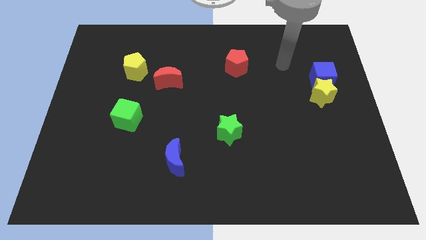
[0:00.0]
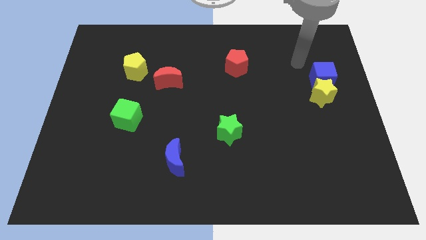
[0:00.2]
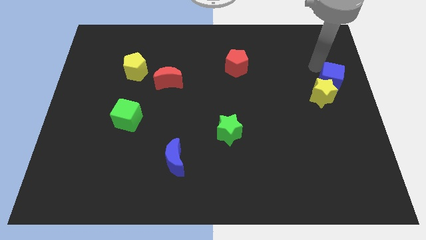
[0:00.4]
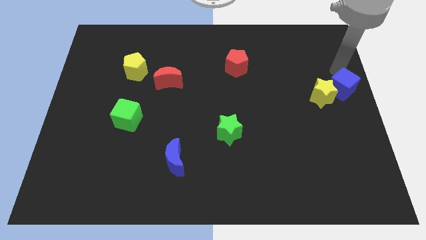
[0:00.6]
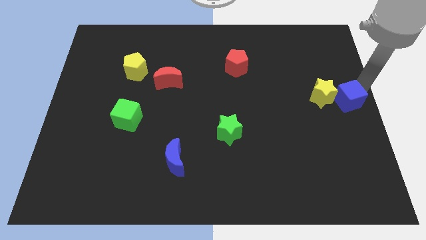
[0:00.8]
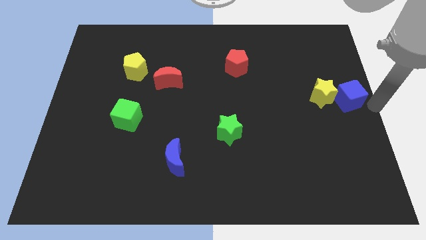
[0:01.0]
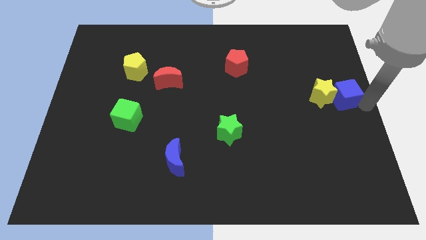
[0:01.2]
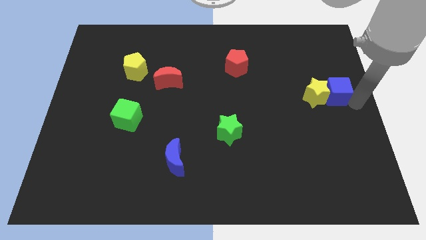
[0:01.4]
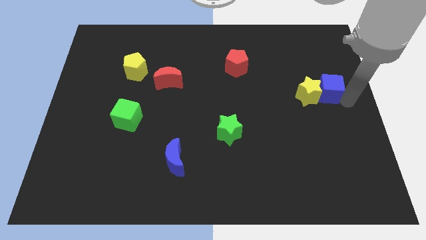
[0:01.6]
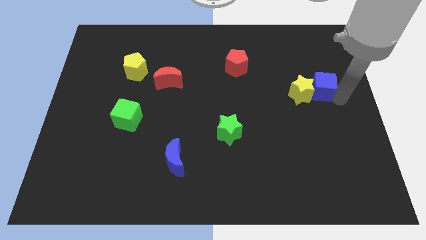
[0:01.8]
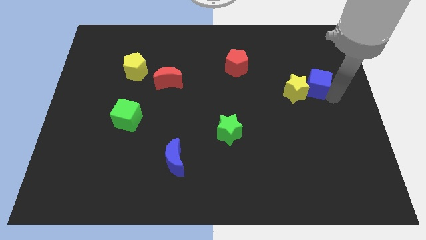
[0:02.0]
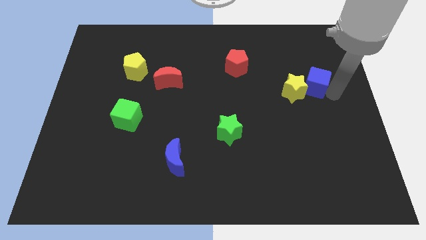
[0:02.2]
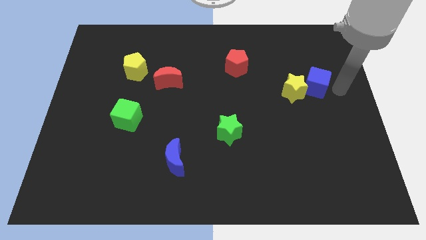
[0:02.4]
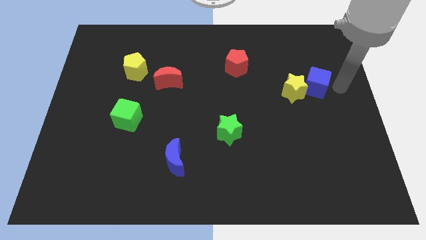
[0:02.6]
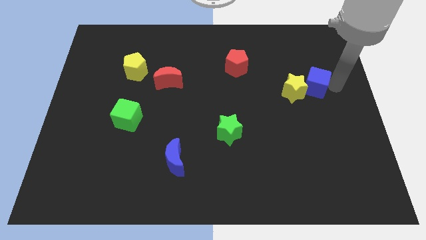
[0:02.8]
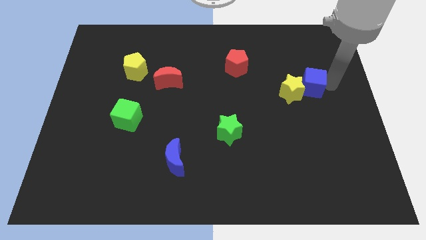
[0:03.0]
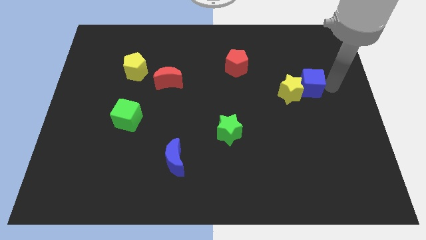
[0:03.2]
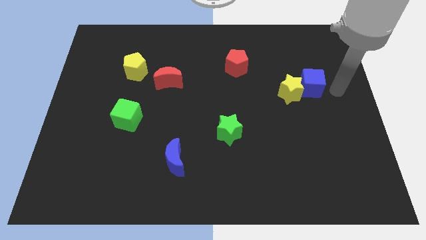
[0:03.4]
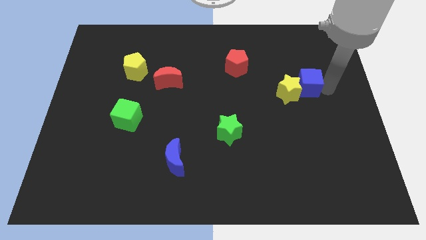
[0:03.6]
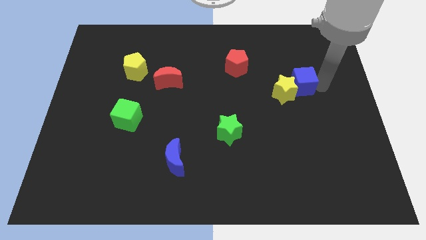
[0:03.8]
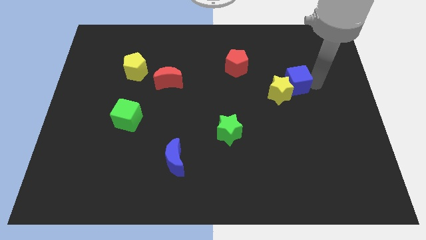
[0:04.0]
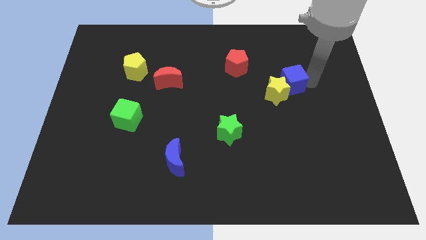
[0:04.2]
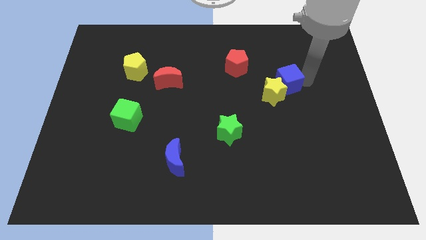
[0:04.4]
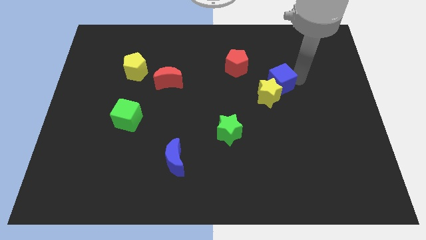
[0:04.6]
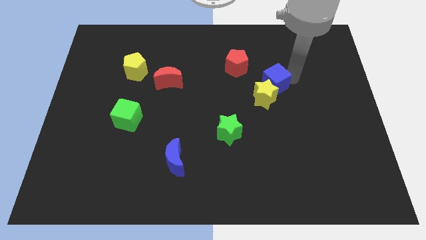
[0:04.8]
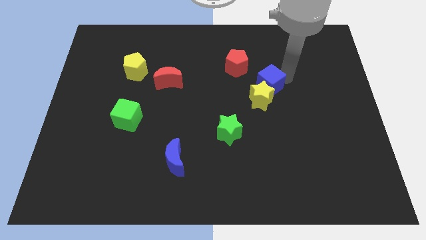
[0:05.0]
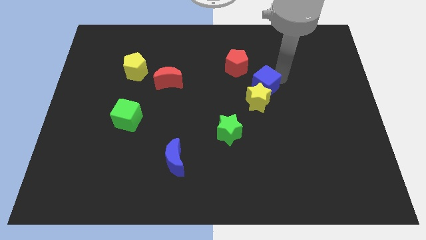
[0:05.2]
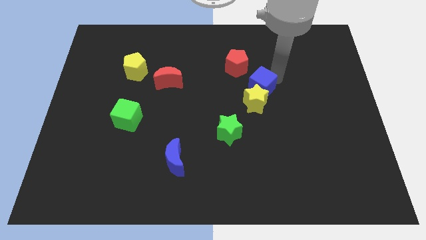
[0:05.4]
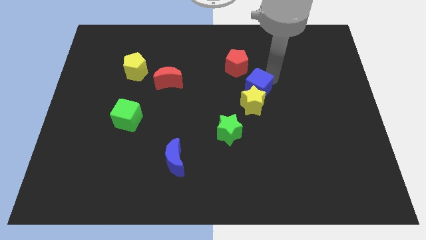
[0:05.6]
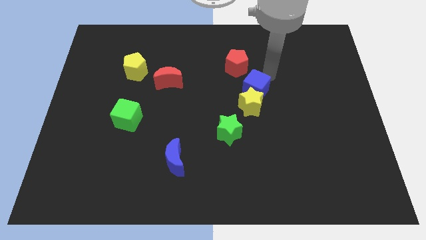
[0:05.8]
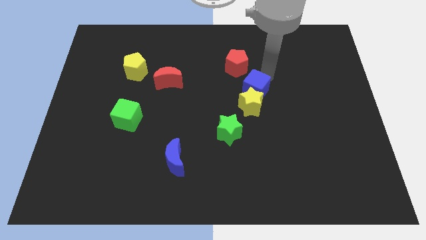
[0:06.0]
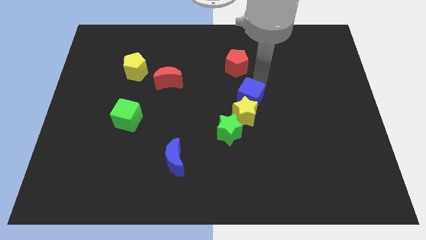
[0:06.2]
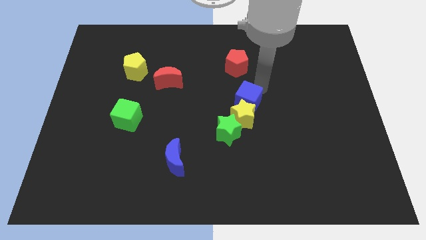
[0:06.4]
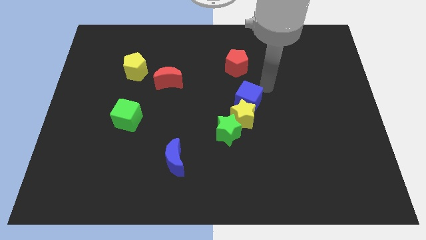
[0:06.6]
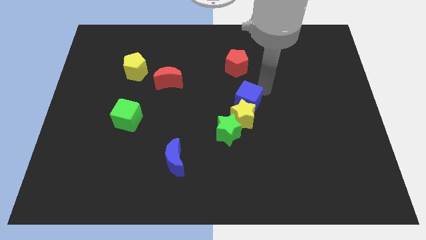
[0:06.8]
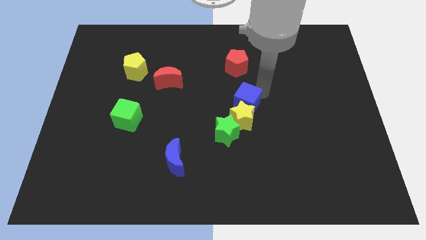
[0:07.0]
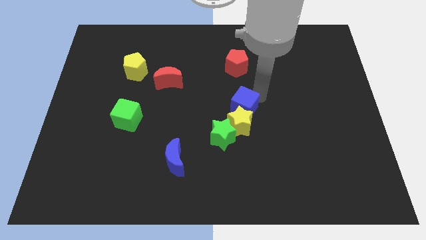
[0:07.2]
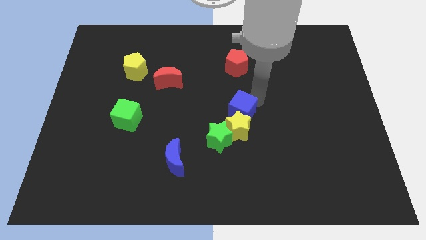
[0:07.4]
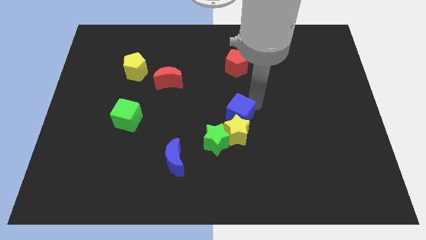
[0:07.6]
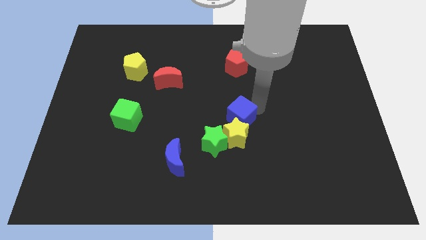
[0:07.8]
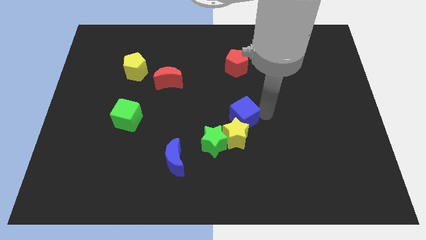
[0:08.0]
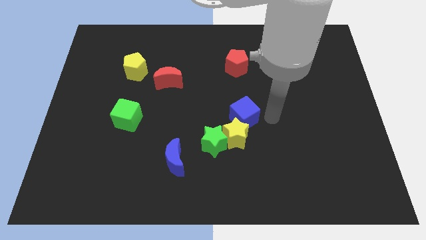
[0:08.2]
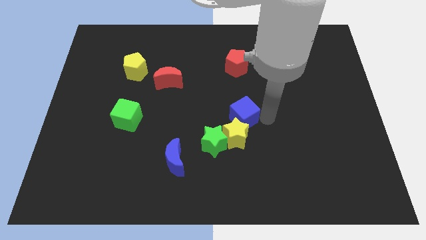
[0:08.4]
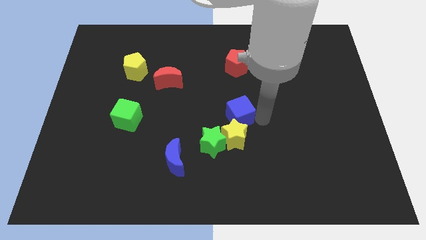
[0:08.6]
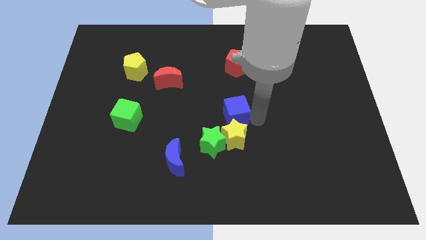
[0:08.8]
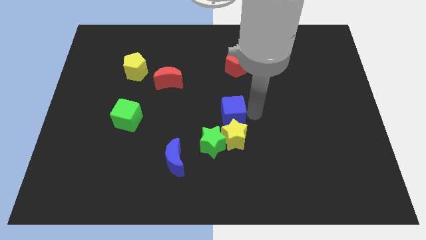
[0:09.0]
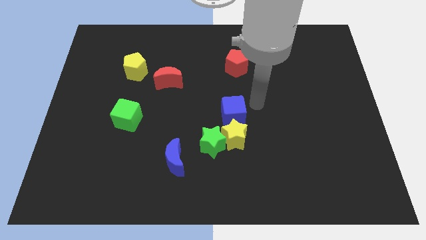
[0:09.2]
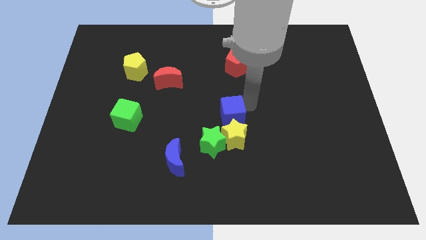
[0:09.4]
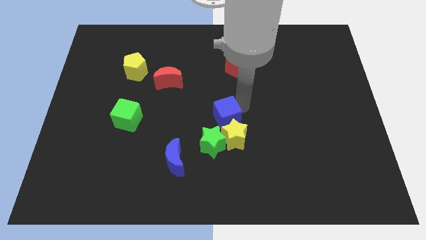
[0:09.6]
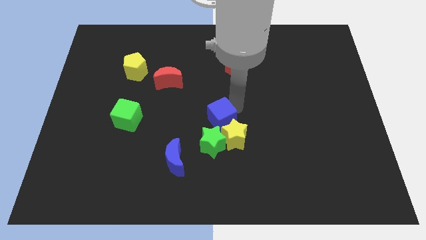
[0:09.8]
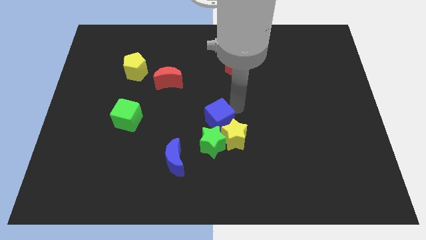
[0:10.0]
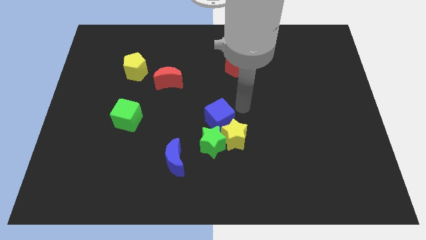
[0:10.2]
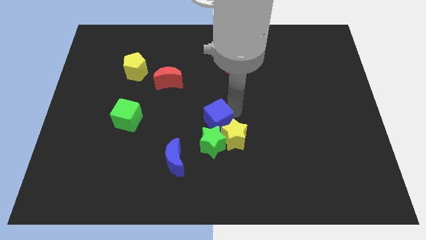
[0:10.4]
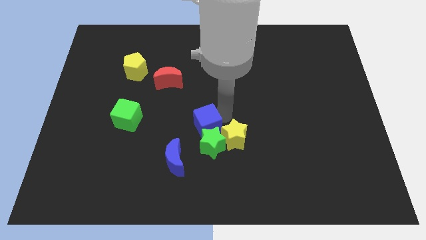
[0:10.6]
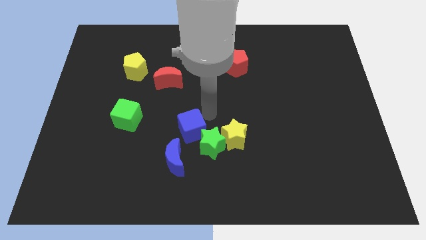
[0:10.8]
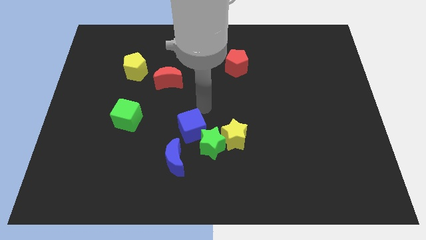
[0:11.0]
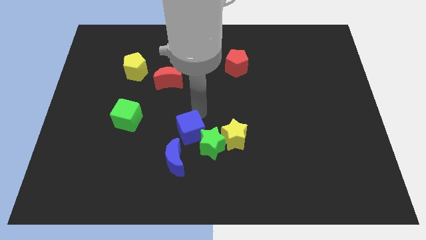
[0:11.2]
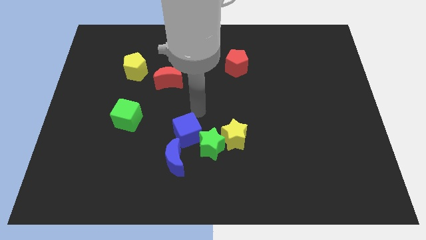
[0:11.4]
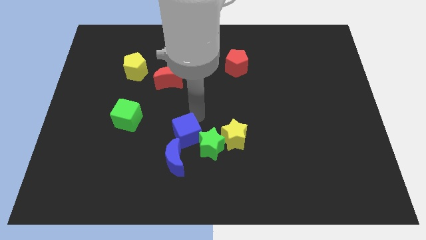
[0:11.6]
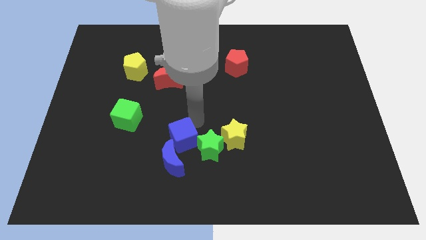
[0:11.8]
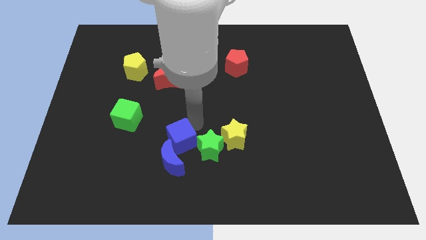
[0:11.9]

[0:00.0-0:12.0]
slide the blue cube to the blue moon

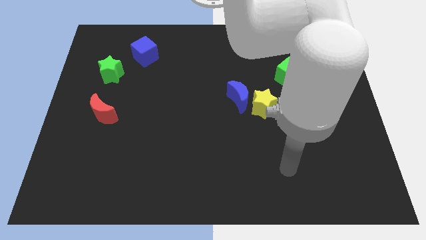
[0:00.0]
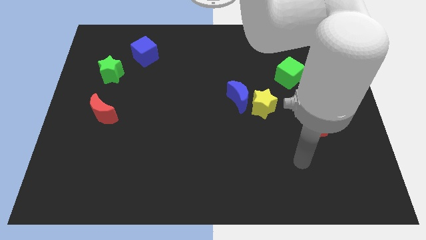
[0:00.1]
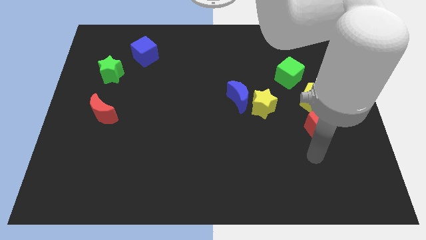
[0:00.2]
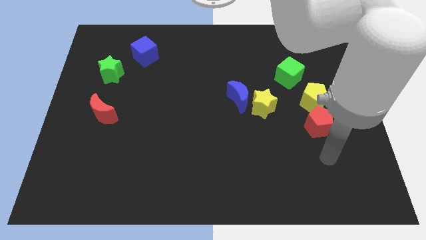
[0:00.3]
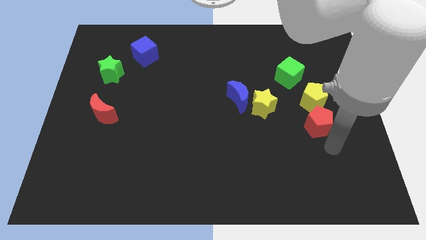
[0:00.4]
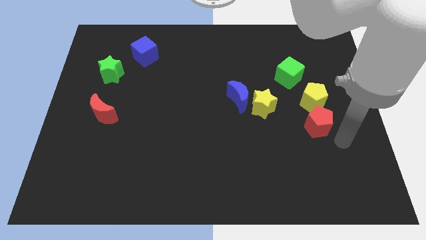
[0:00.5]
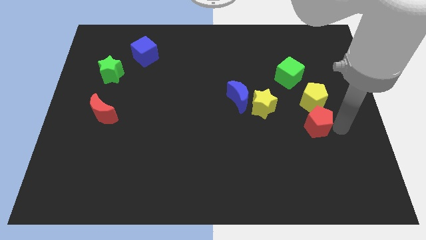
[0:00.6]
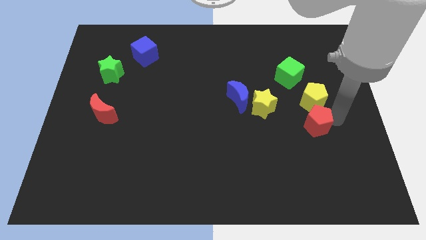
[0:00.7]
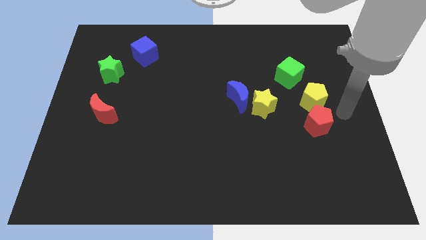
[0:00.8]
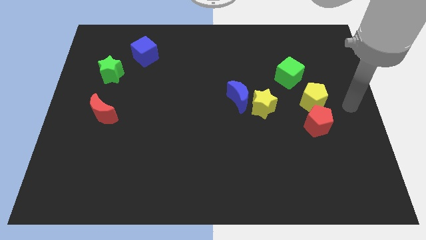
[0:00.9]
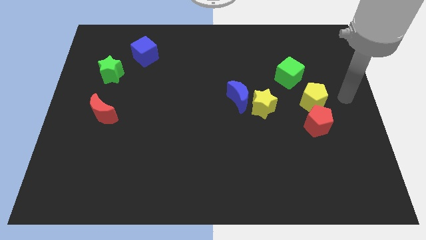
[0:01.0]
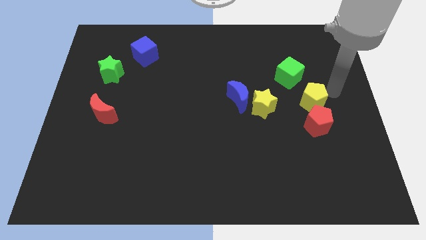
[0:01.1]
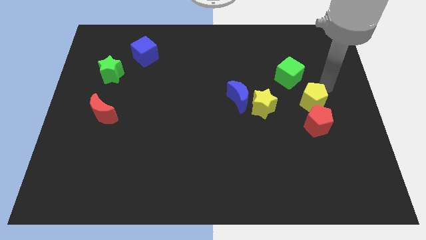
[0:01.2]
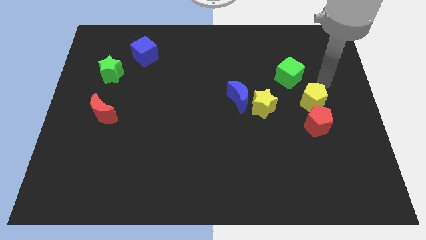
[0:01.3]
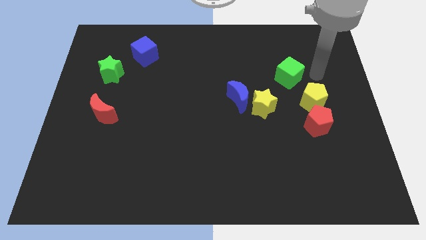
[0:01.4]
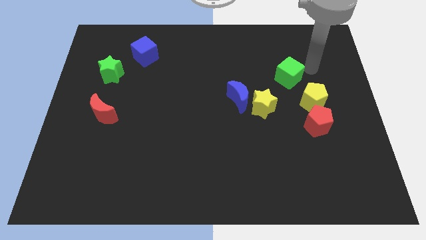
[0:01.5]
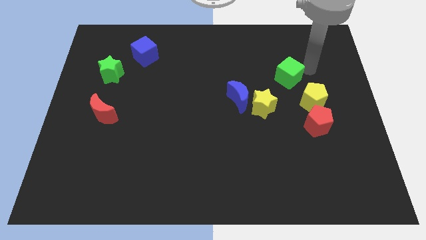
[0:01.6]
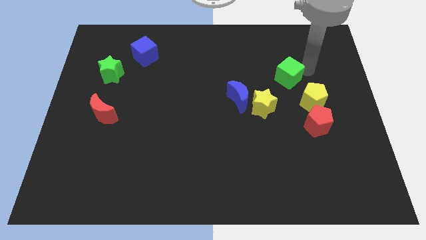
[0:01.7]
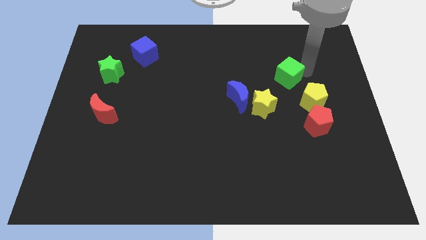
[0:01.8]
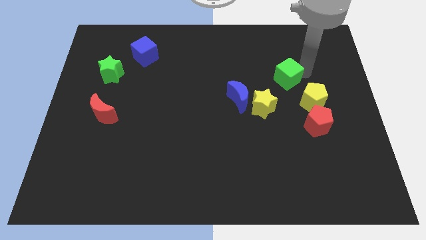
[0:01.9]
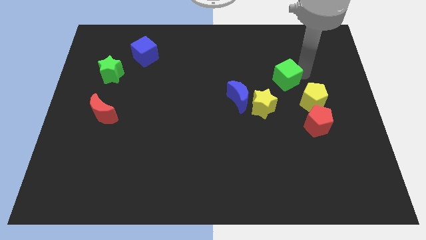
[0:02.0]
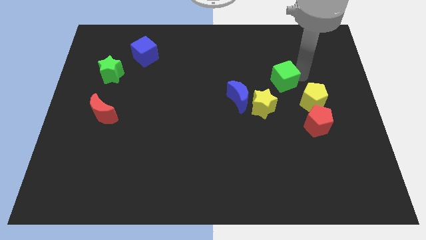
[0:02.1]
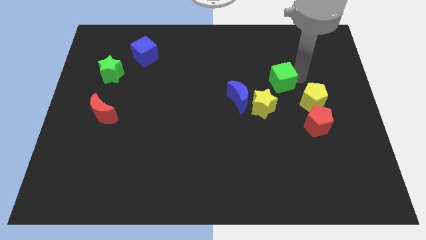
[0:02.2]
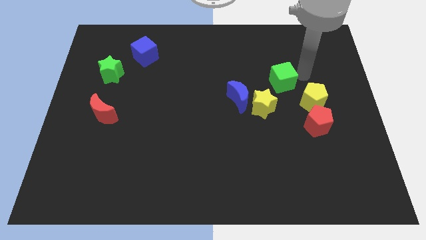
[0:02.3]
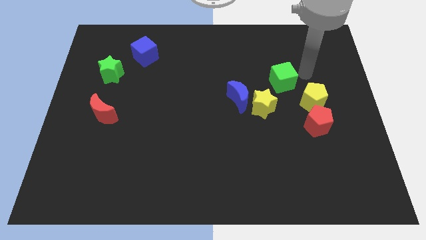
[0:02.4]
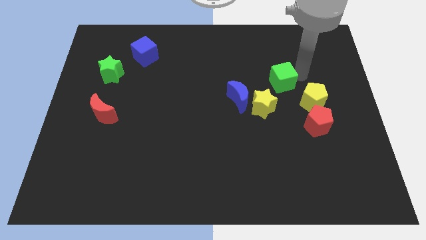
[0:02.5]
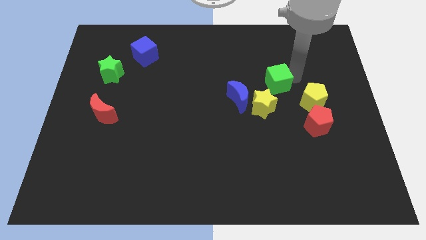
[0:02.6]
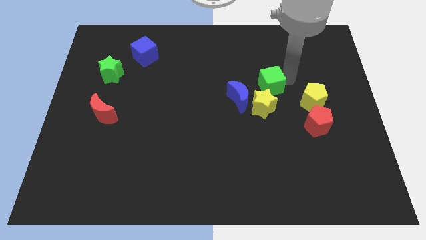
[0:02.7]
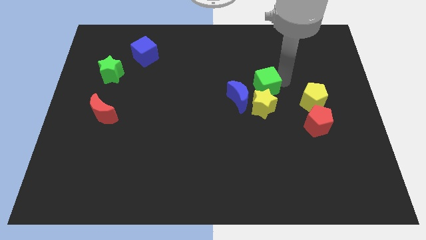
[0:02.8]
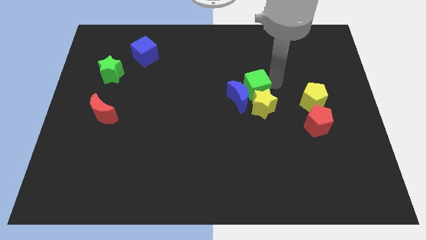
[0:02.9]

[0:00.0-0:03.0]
push the green cube next to the blue moon
